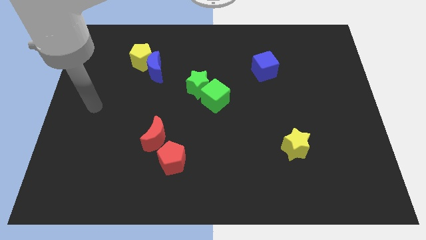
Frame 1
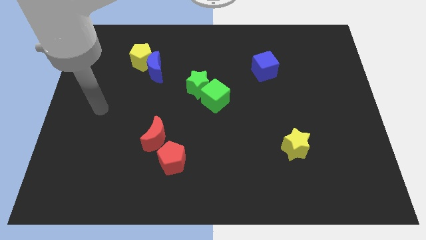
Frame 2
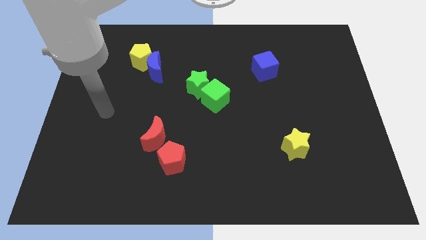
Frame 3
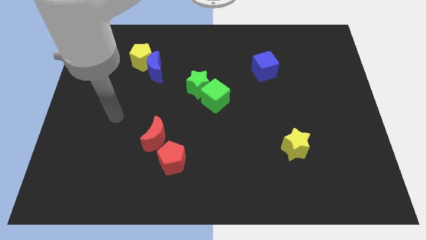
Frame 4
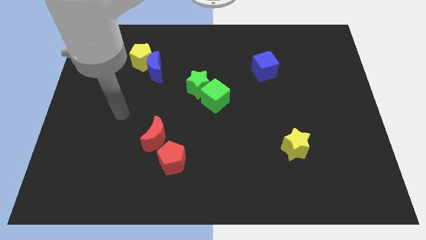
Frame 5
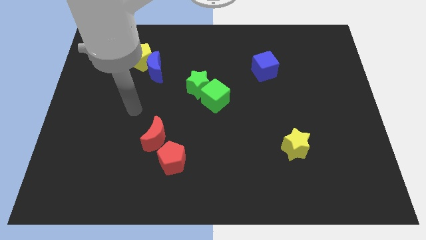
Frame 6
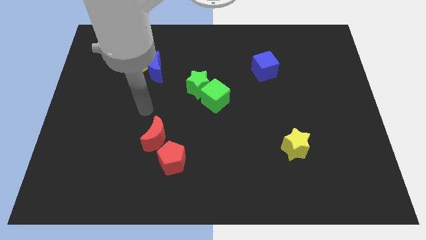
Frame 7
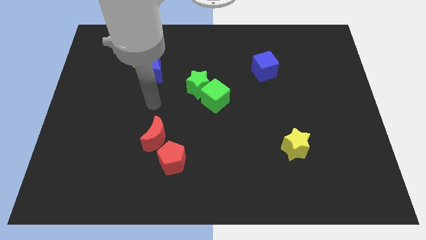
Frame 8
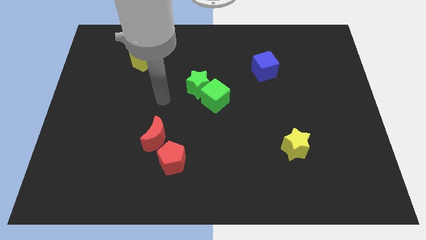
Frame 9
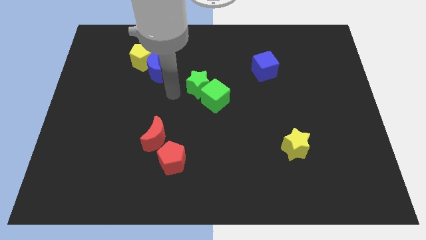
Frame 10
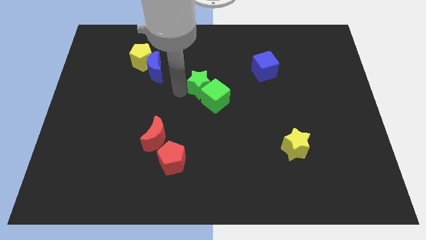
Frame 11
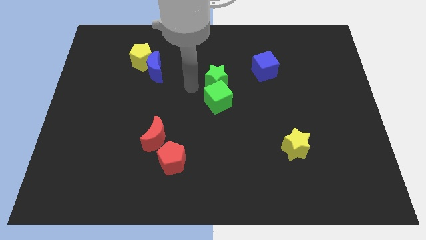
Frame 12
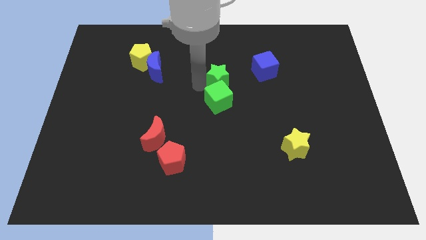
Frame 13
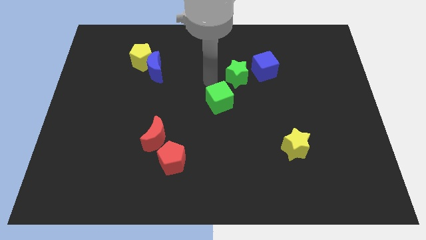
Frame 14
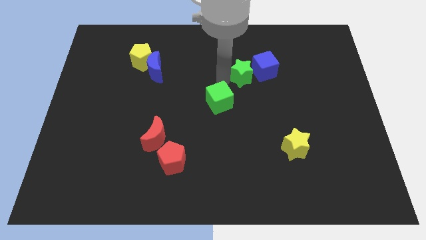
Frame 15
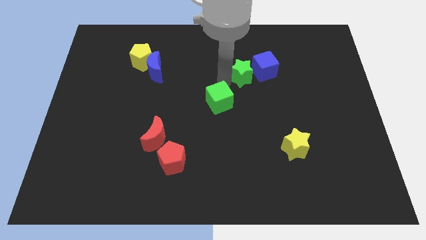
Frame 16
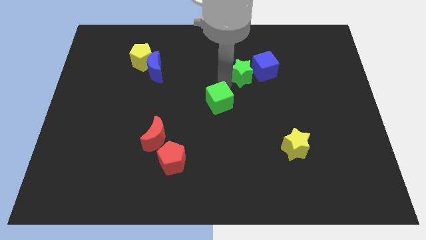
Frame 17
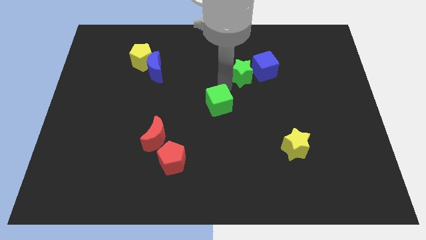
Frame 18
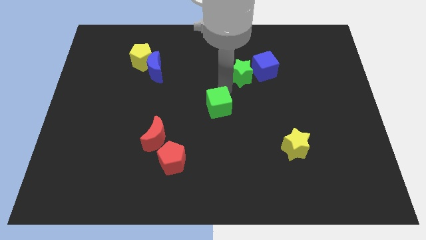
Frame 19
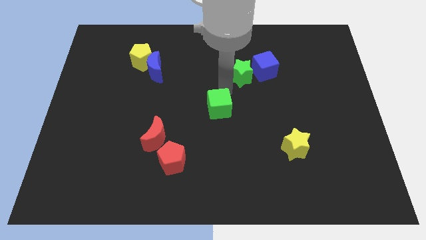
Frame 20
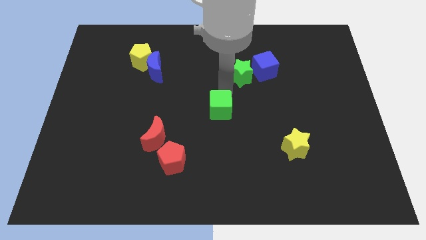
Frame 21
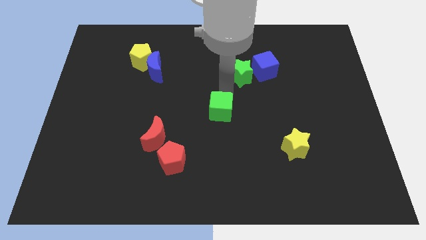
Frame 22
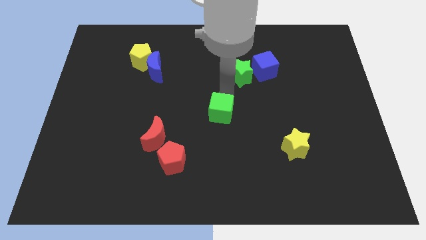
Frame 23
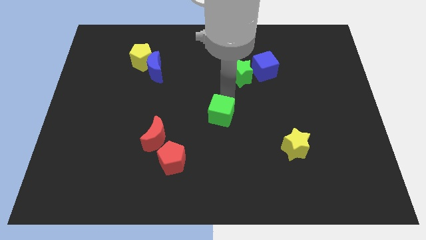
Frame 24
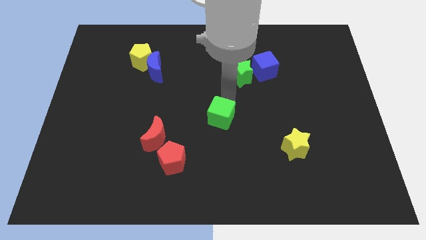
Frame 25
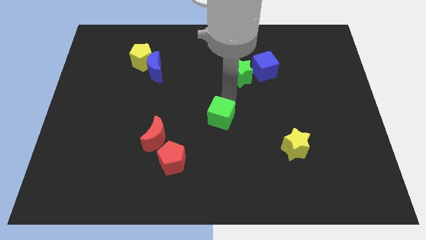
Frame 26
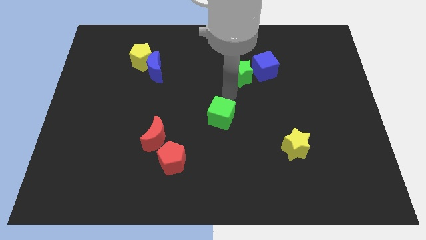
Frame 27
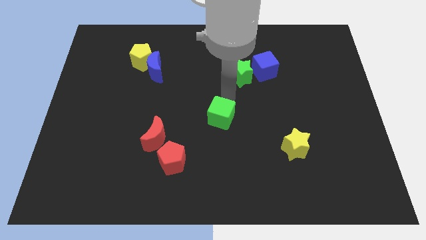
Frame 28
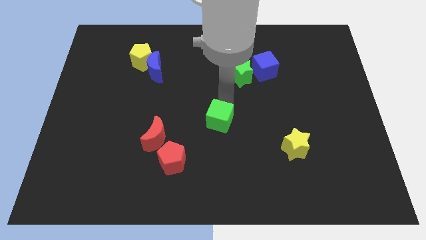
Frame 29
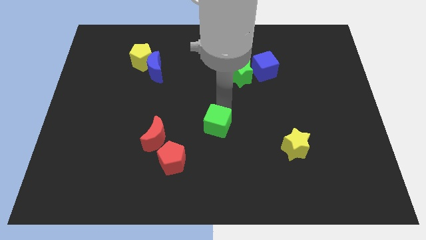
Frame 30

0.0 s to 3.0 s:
push the green cube downwards slightly

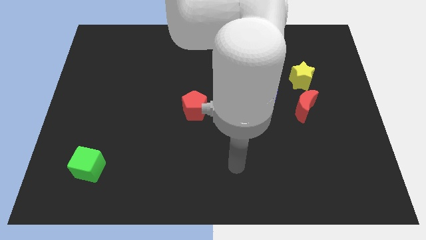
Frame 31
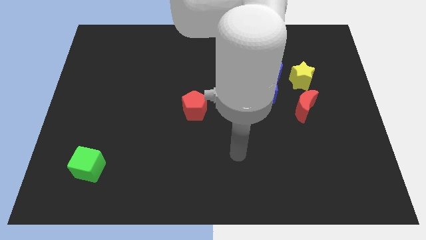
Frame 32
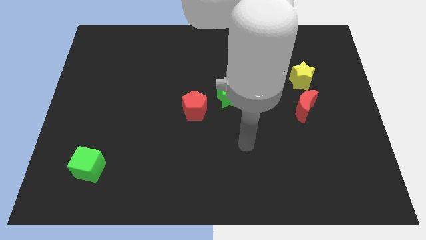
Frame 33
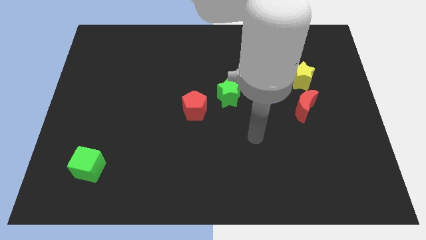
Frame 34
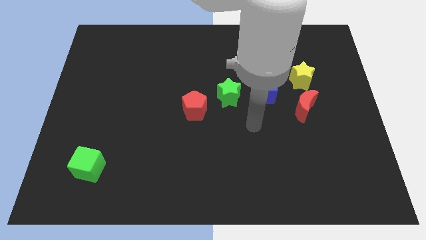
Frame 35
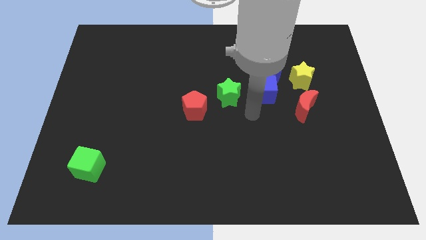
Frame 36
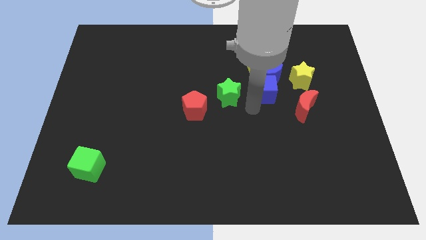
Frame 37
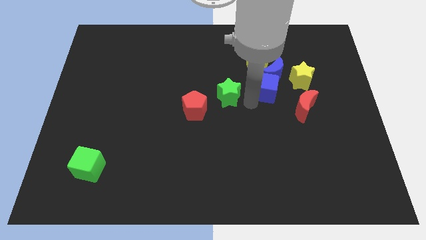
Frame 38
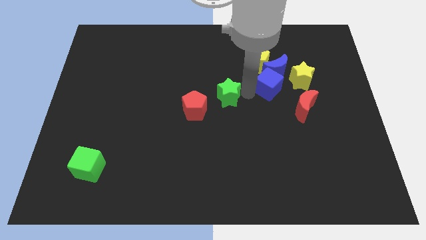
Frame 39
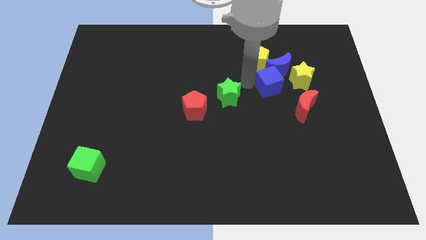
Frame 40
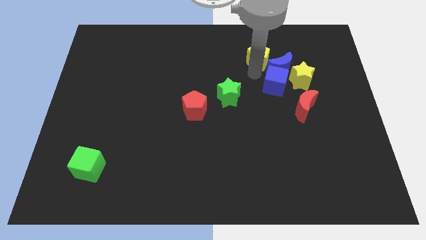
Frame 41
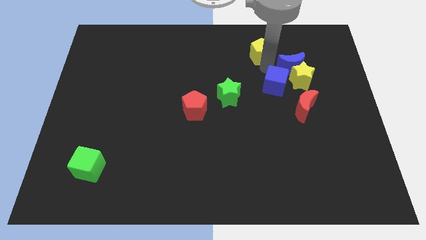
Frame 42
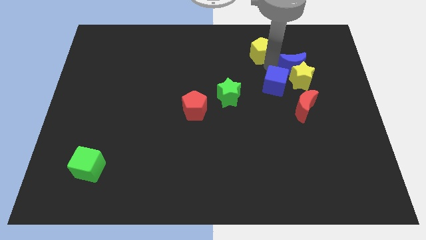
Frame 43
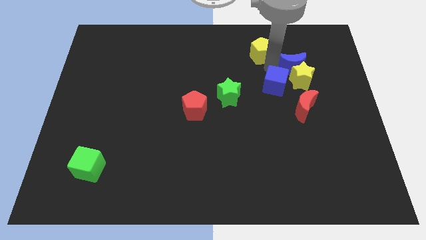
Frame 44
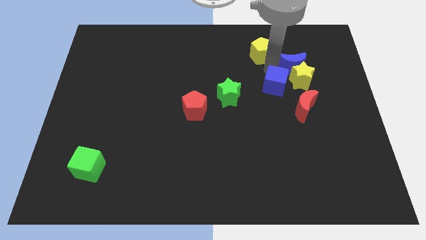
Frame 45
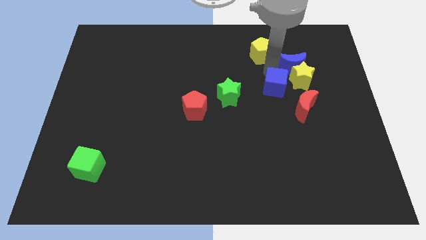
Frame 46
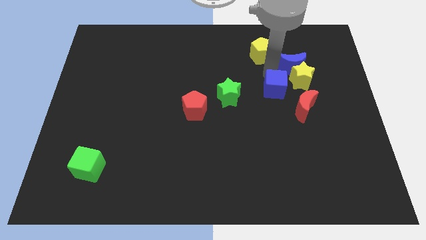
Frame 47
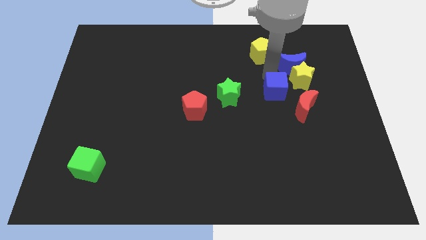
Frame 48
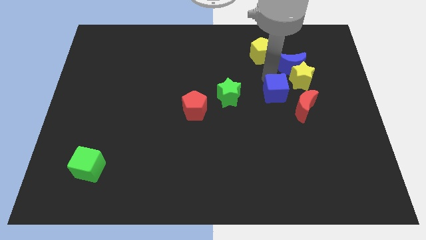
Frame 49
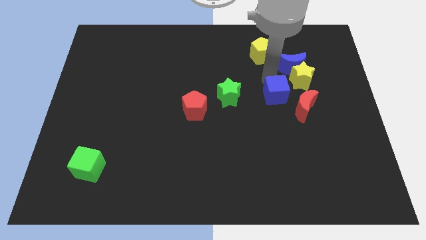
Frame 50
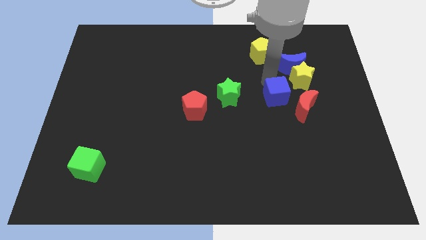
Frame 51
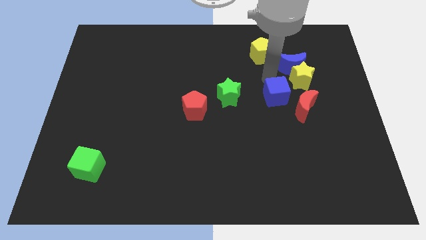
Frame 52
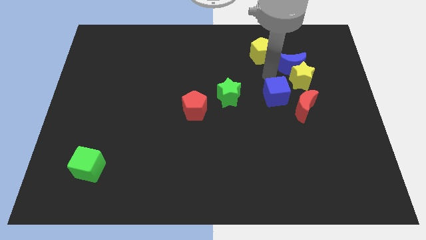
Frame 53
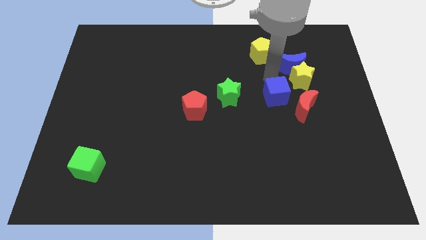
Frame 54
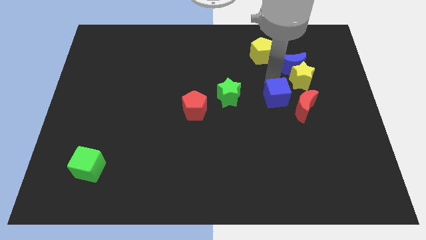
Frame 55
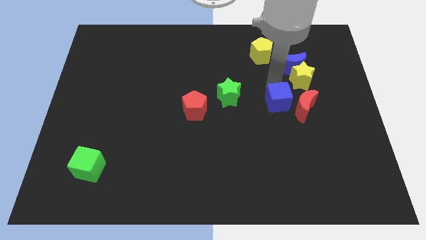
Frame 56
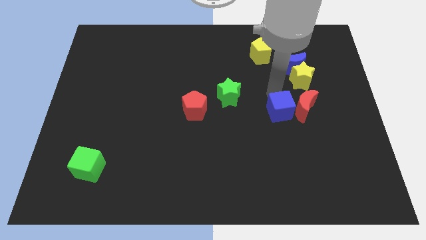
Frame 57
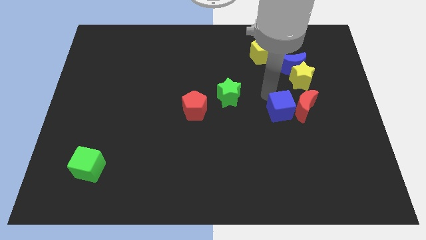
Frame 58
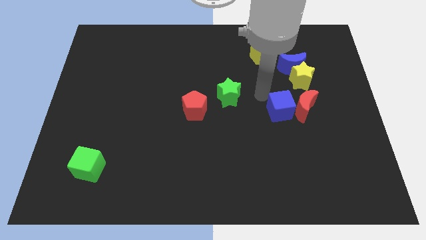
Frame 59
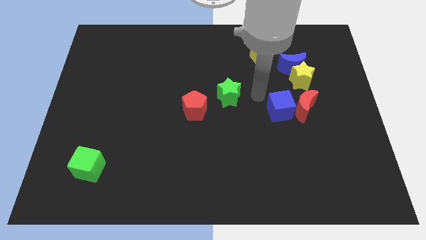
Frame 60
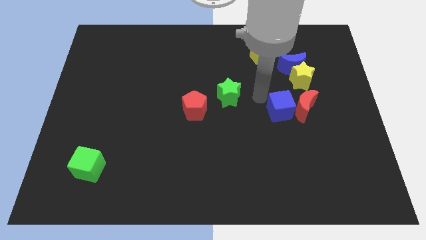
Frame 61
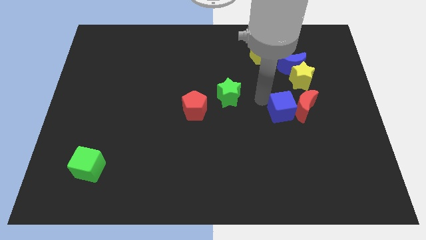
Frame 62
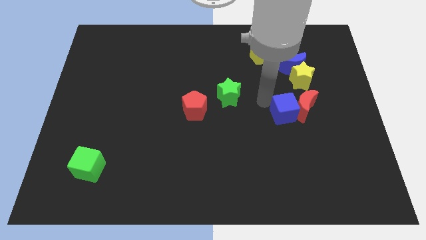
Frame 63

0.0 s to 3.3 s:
slide the blue cube down and then to the right a bit

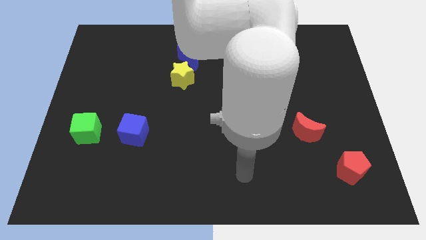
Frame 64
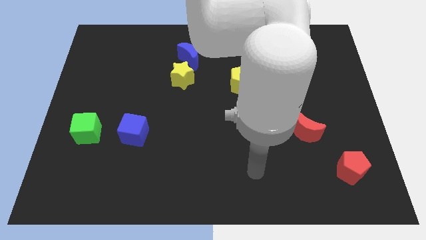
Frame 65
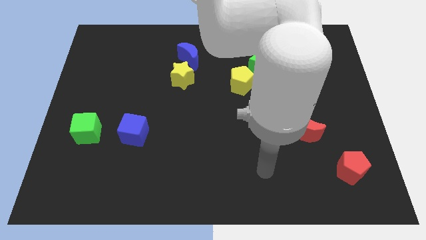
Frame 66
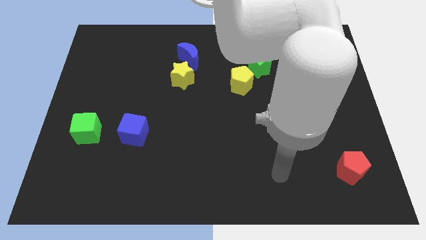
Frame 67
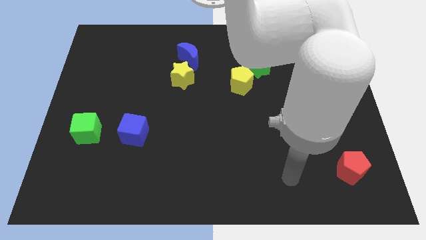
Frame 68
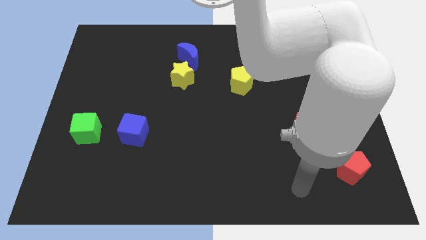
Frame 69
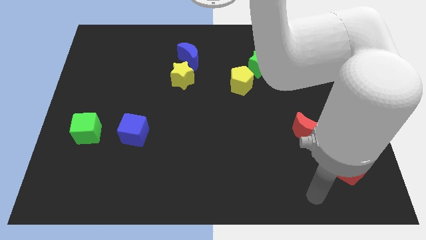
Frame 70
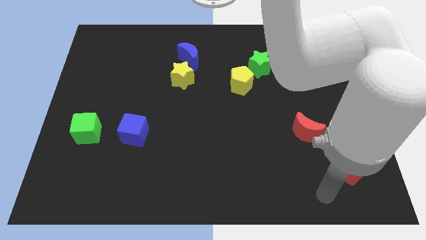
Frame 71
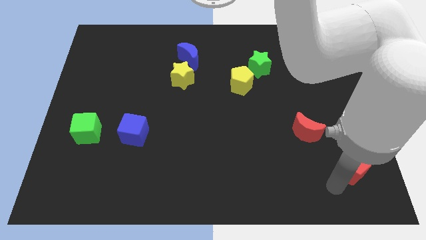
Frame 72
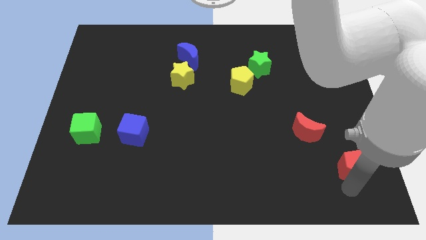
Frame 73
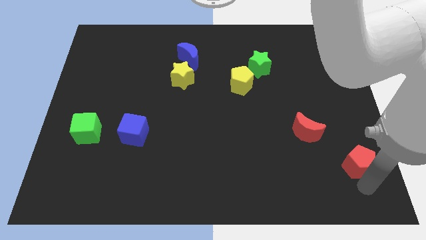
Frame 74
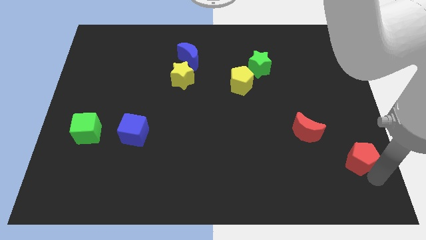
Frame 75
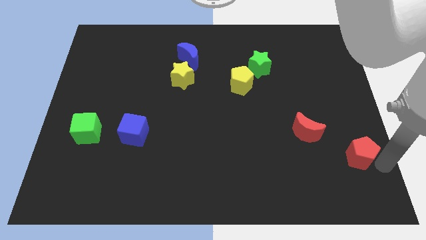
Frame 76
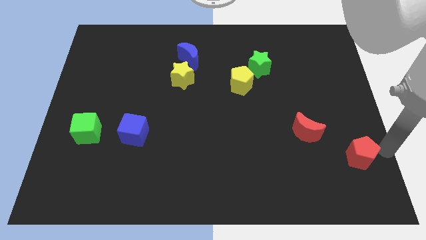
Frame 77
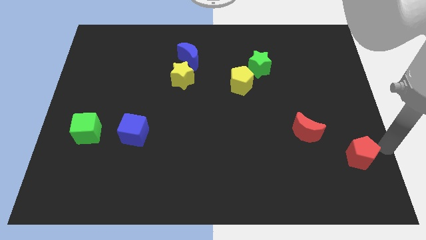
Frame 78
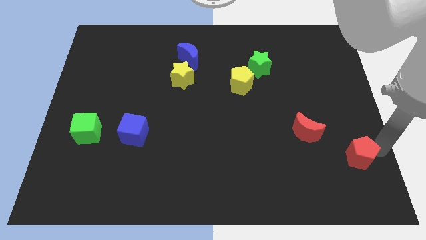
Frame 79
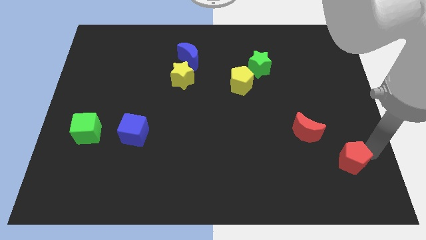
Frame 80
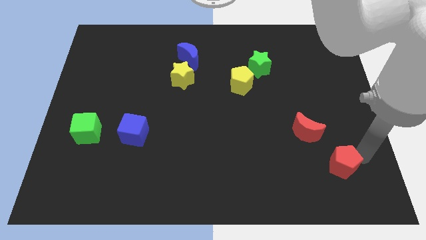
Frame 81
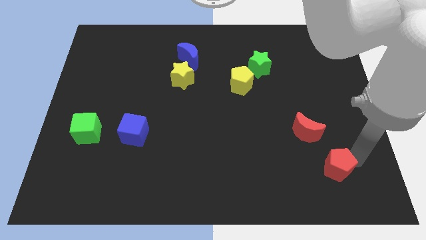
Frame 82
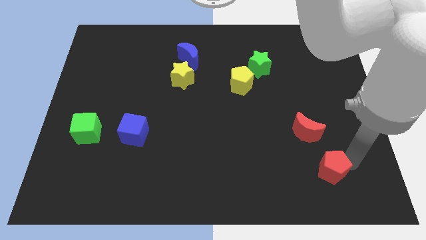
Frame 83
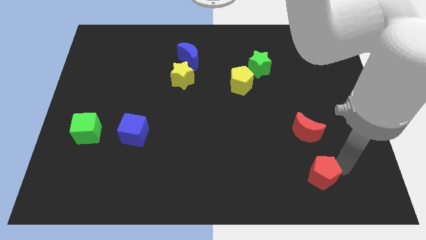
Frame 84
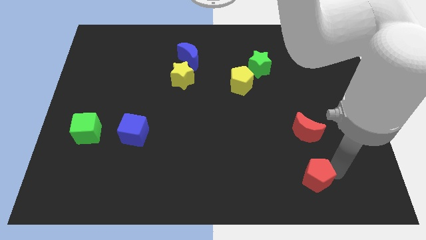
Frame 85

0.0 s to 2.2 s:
slightly move the red pentagon left

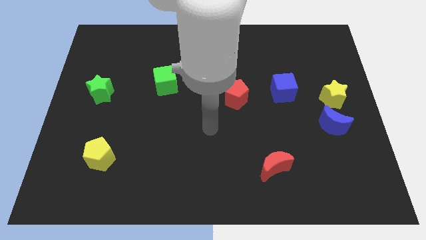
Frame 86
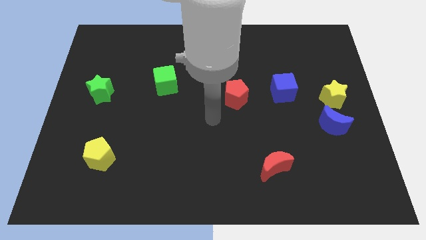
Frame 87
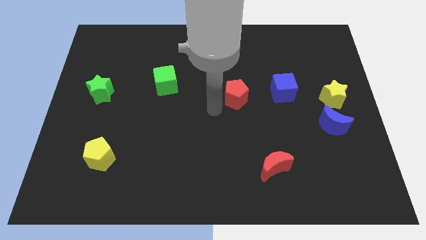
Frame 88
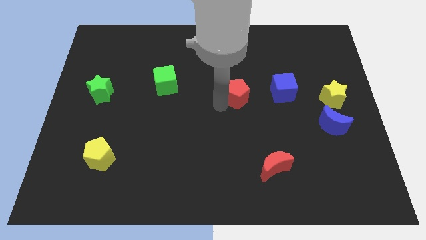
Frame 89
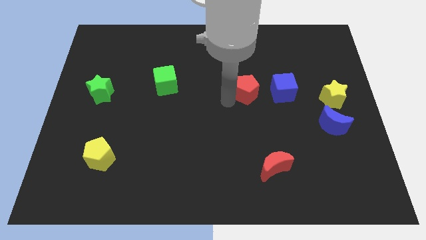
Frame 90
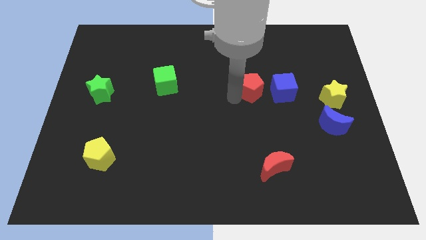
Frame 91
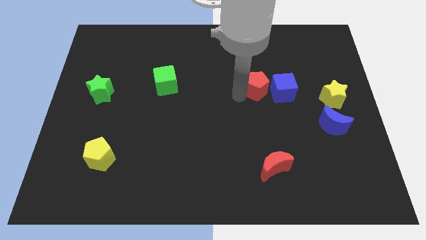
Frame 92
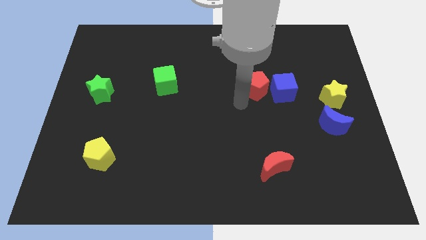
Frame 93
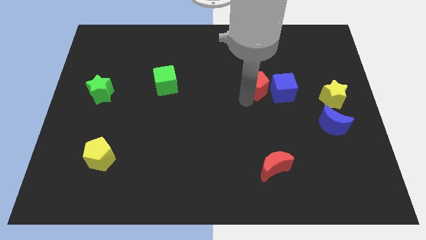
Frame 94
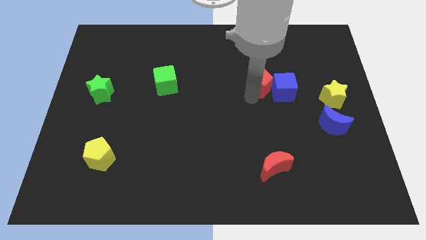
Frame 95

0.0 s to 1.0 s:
push the red pentagon diagonally upwards and to the right a little bit
